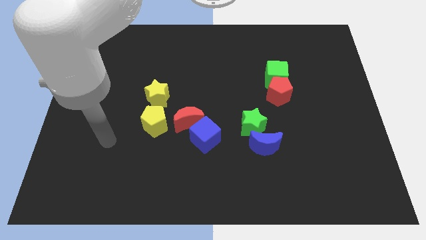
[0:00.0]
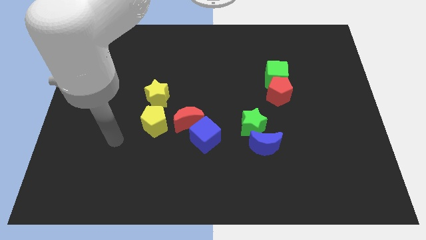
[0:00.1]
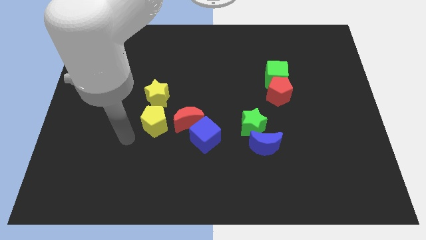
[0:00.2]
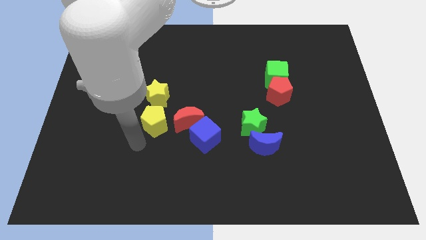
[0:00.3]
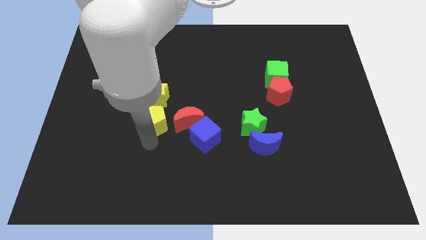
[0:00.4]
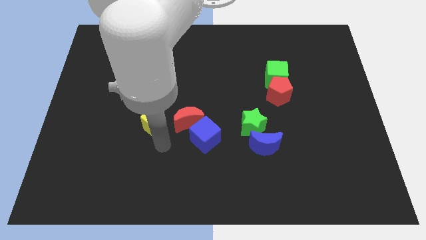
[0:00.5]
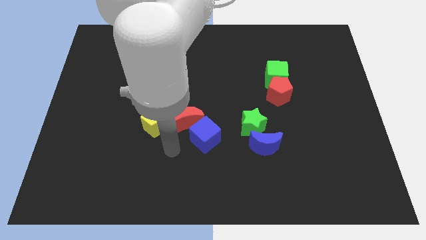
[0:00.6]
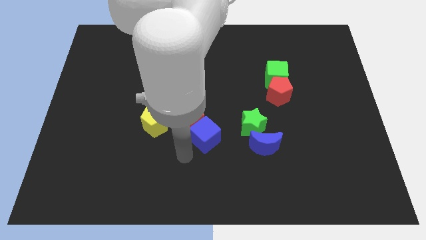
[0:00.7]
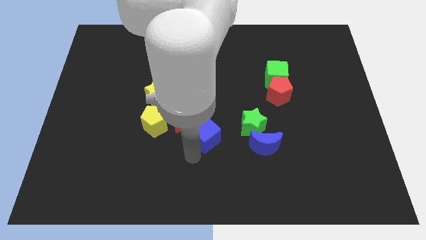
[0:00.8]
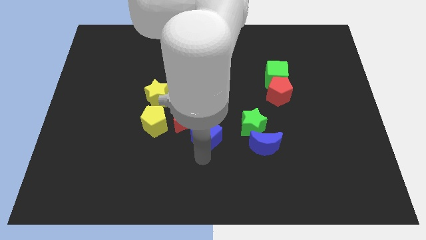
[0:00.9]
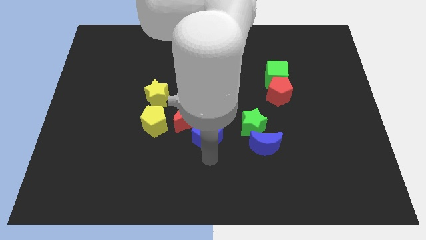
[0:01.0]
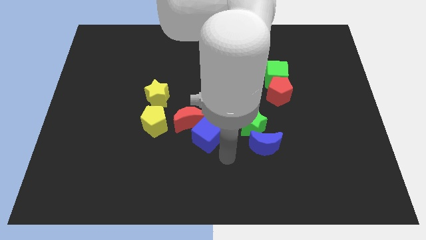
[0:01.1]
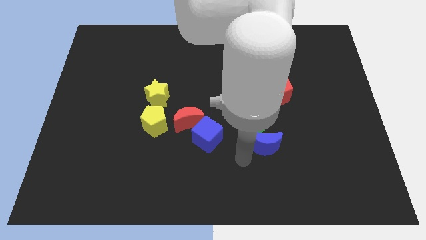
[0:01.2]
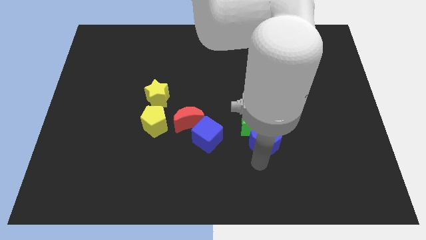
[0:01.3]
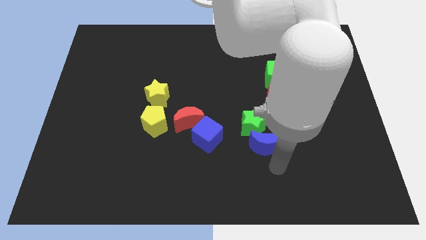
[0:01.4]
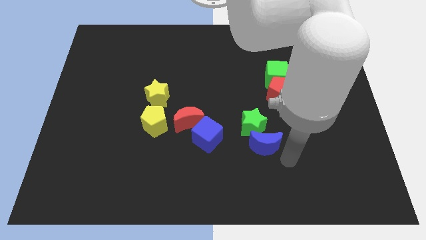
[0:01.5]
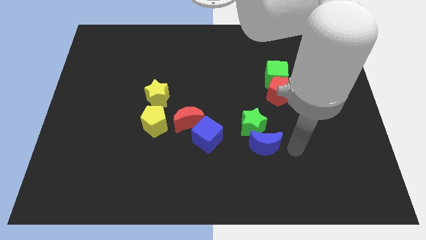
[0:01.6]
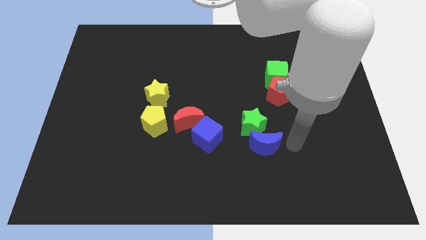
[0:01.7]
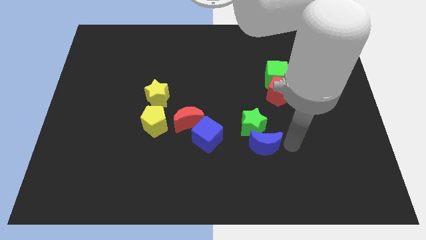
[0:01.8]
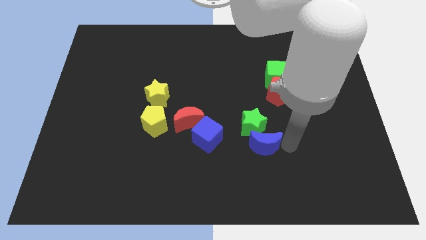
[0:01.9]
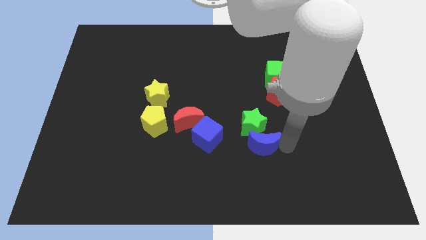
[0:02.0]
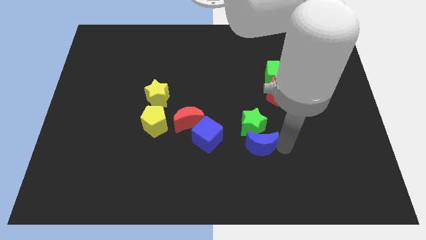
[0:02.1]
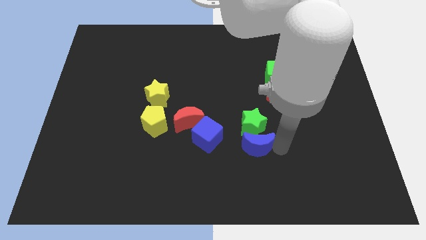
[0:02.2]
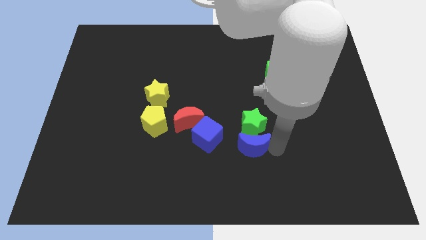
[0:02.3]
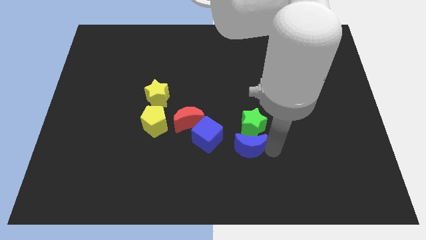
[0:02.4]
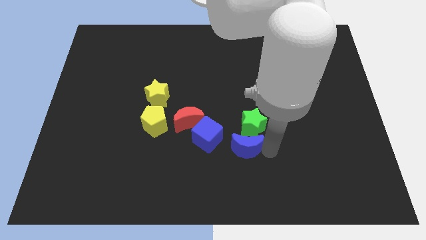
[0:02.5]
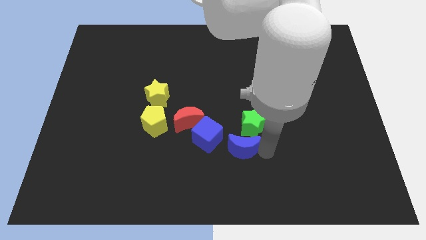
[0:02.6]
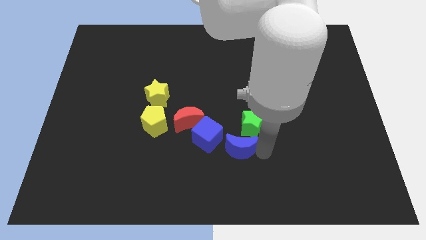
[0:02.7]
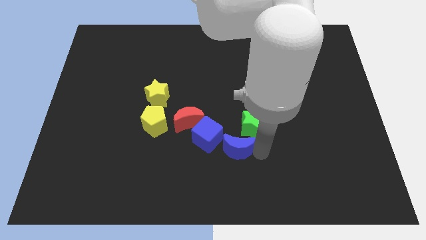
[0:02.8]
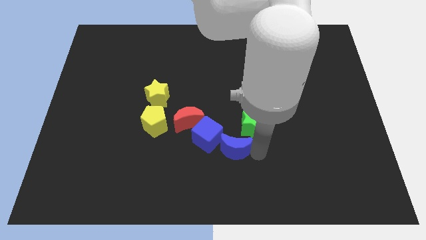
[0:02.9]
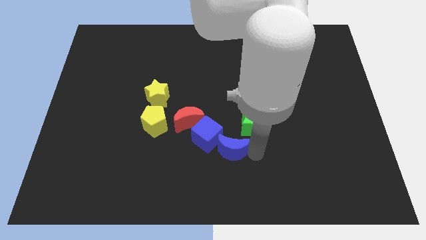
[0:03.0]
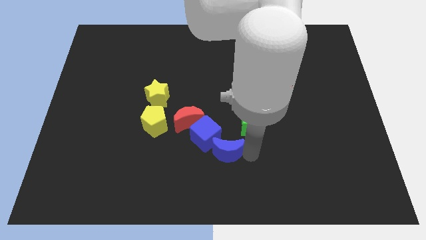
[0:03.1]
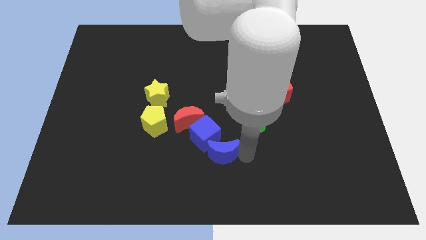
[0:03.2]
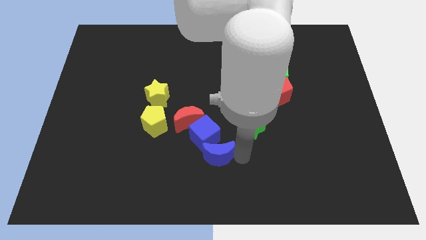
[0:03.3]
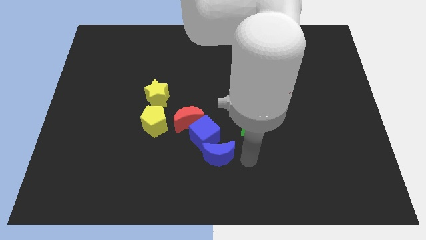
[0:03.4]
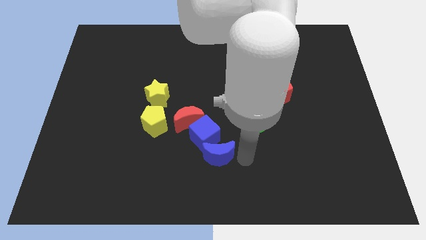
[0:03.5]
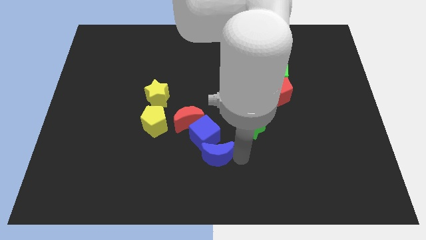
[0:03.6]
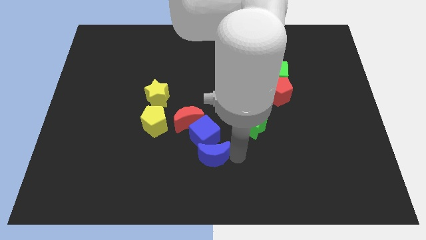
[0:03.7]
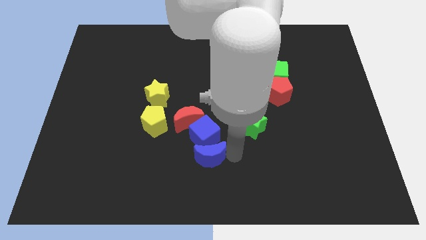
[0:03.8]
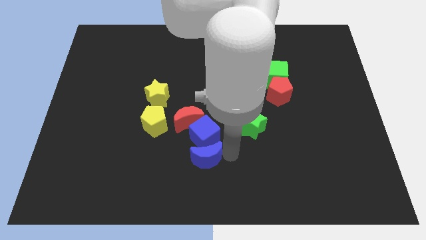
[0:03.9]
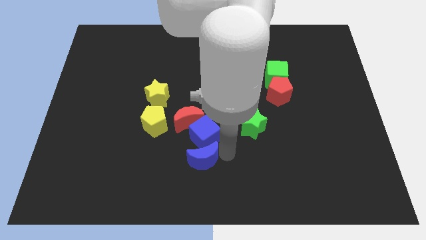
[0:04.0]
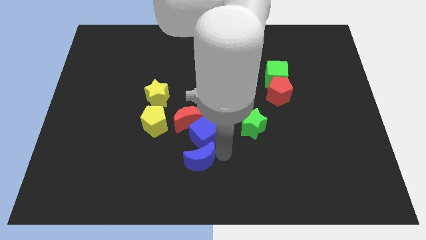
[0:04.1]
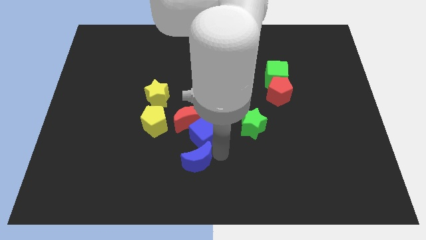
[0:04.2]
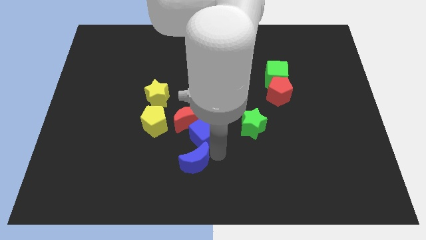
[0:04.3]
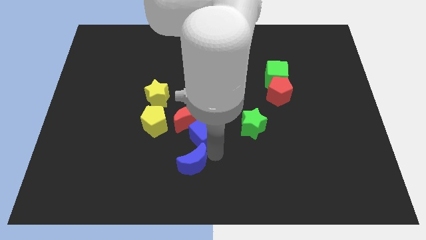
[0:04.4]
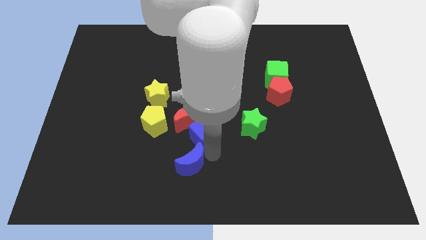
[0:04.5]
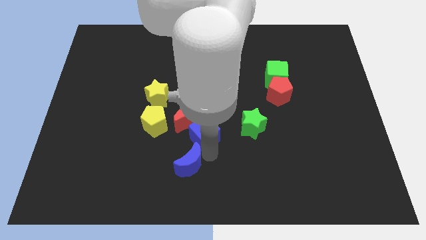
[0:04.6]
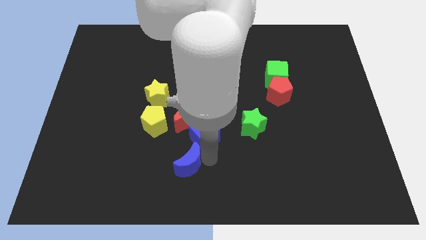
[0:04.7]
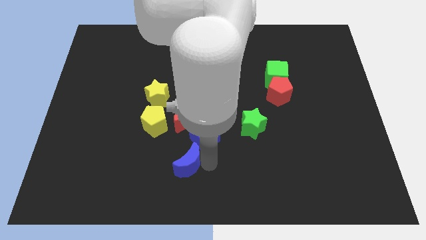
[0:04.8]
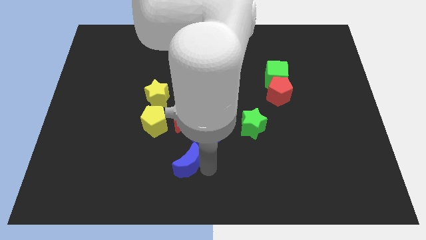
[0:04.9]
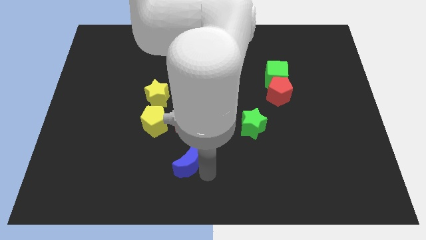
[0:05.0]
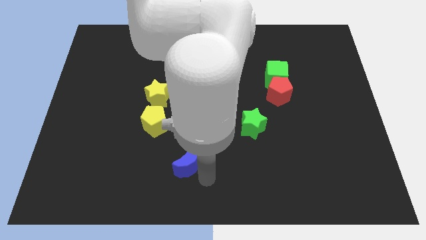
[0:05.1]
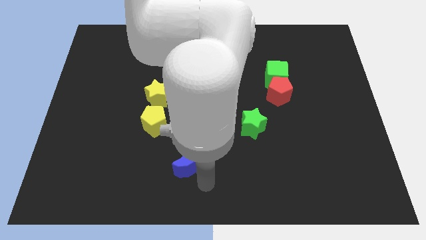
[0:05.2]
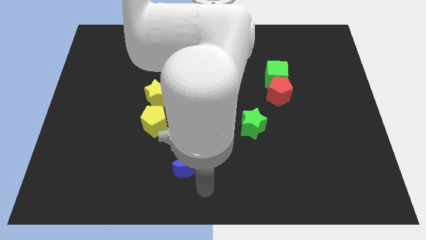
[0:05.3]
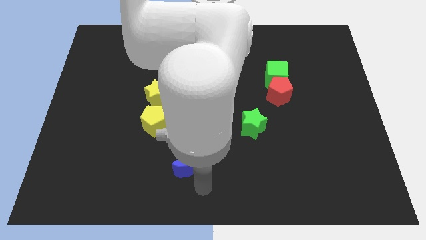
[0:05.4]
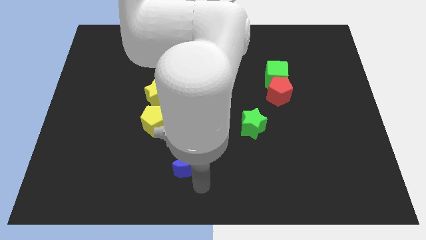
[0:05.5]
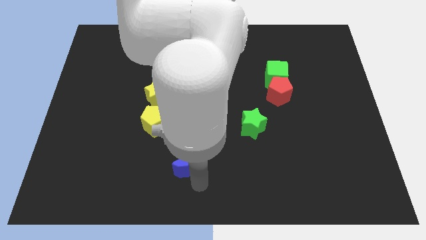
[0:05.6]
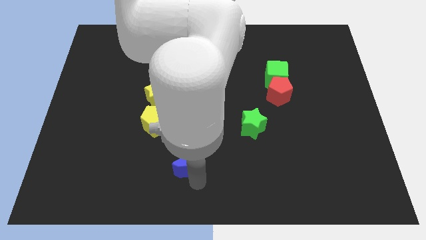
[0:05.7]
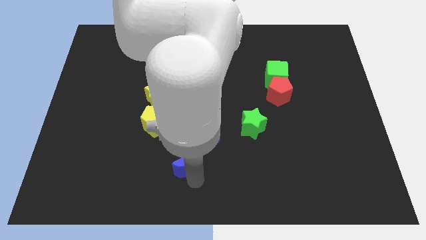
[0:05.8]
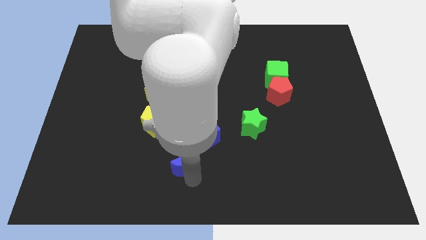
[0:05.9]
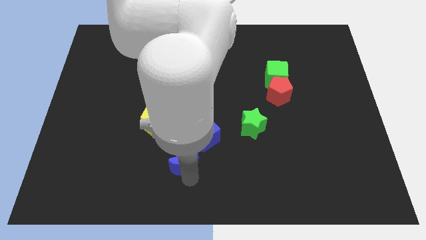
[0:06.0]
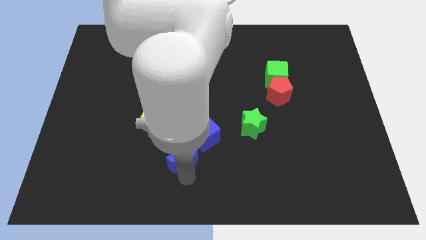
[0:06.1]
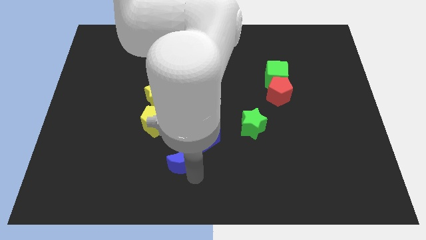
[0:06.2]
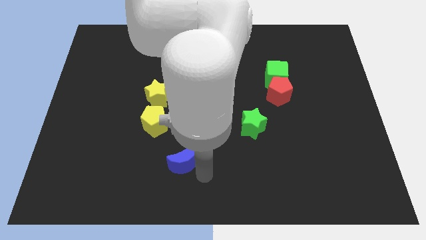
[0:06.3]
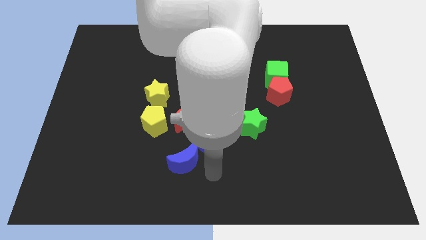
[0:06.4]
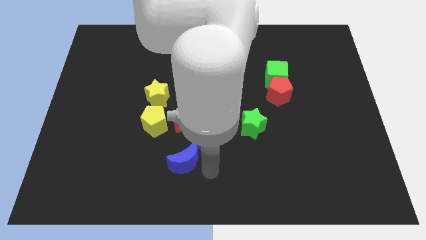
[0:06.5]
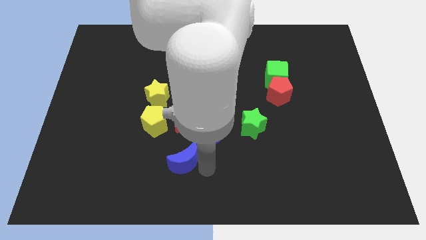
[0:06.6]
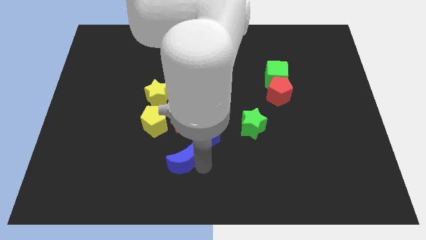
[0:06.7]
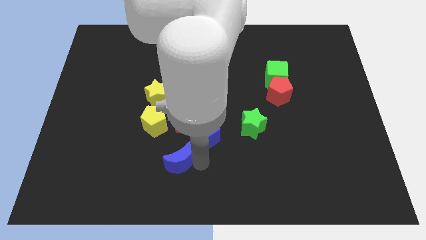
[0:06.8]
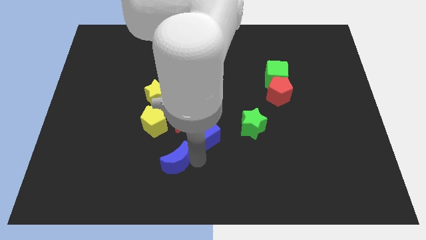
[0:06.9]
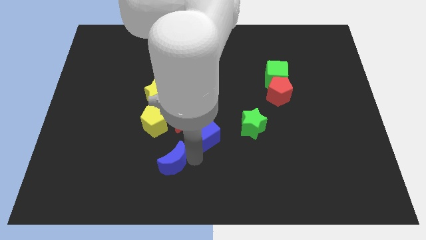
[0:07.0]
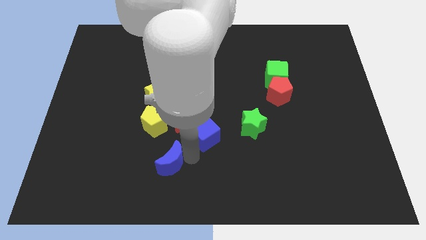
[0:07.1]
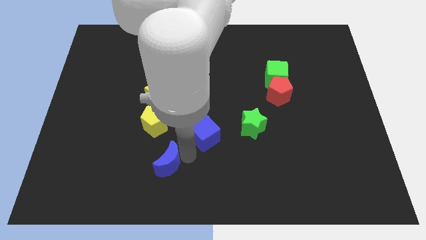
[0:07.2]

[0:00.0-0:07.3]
slide the blue moon left

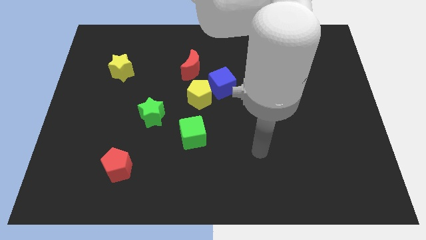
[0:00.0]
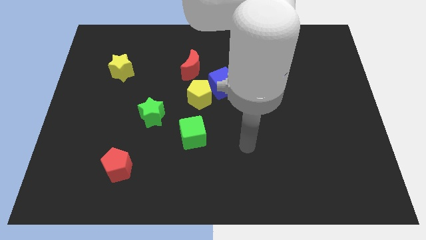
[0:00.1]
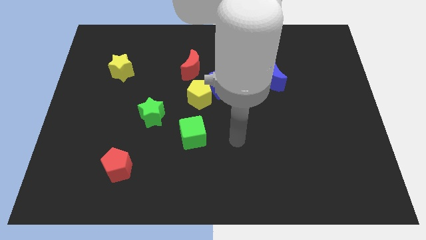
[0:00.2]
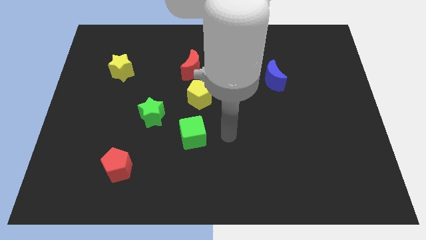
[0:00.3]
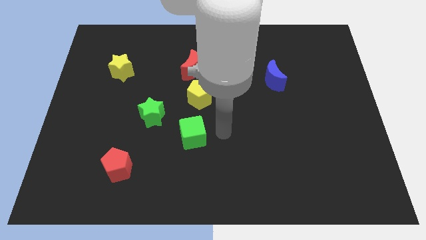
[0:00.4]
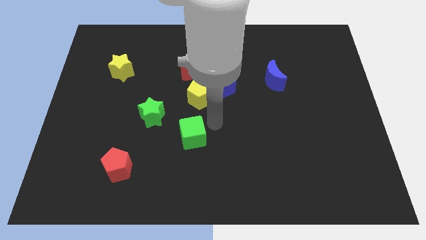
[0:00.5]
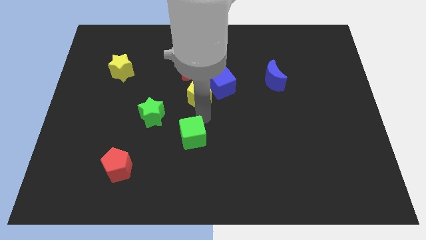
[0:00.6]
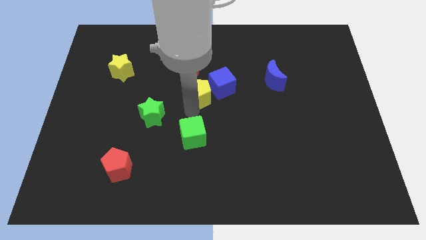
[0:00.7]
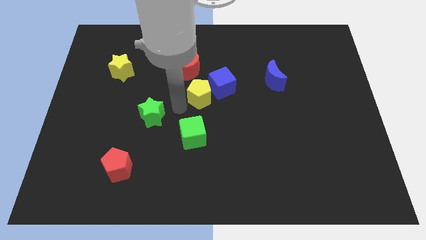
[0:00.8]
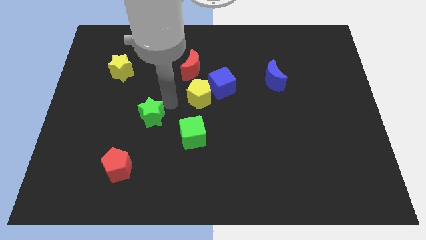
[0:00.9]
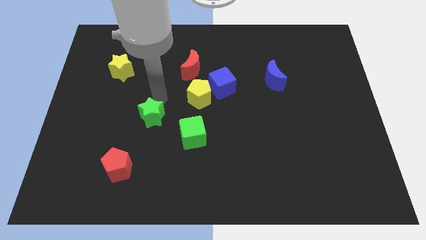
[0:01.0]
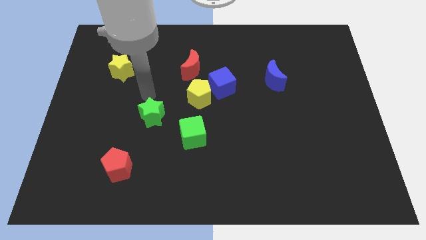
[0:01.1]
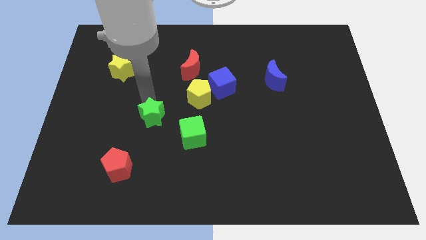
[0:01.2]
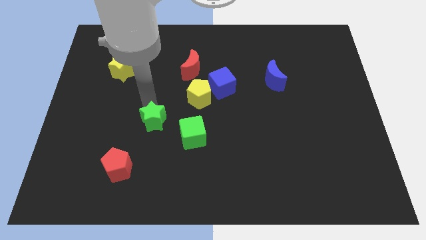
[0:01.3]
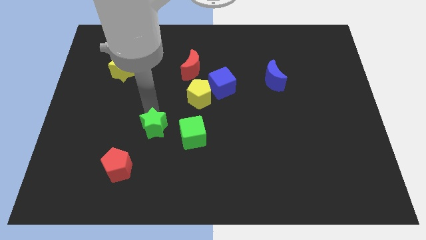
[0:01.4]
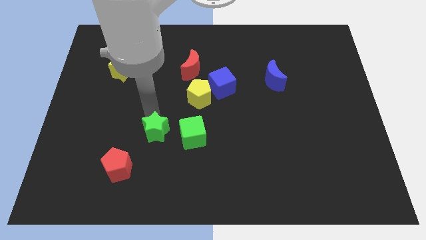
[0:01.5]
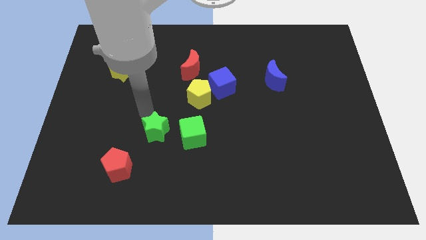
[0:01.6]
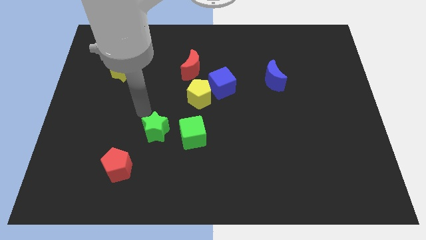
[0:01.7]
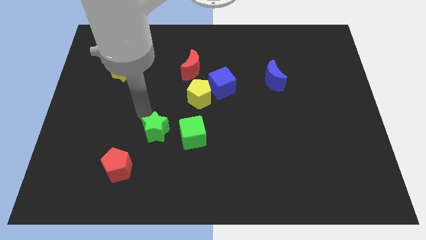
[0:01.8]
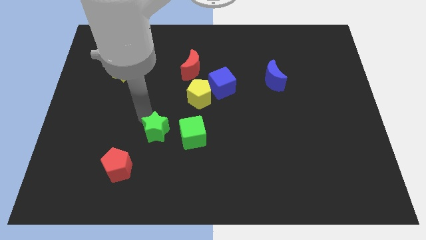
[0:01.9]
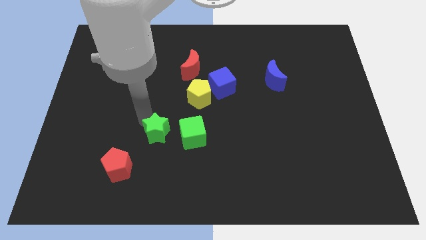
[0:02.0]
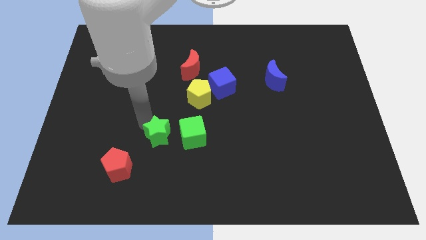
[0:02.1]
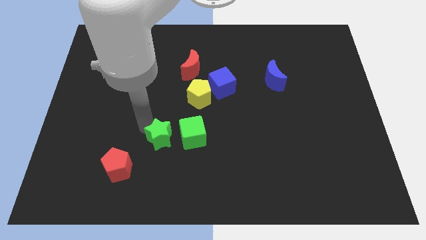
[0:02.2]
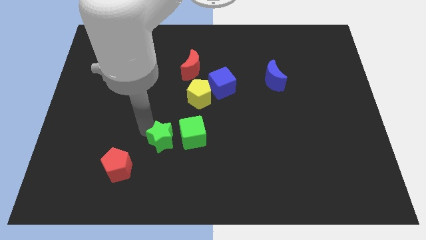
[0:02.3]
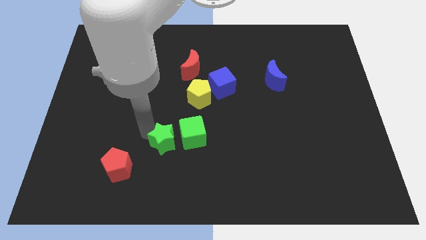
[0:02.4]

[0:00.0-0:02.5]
slide the green star a little downwards and right
